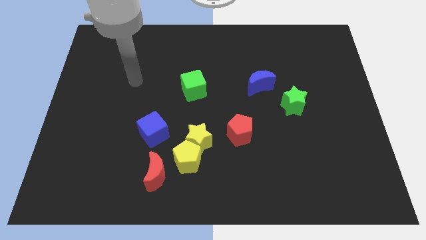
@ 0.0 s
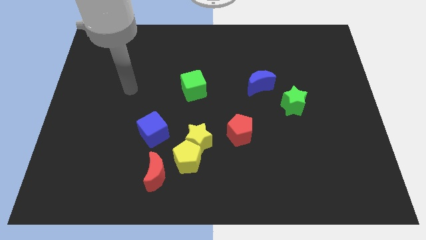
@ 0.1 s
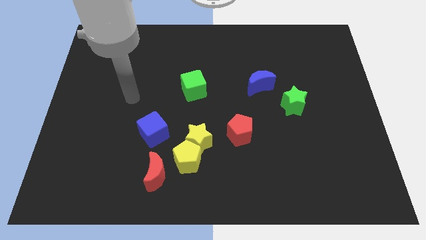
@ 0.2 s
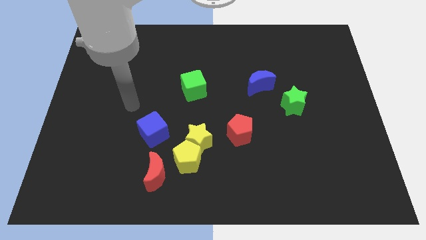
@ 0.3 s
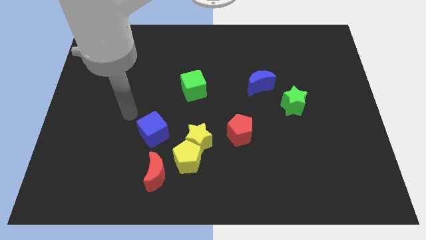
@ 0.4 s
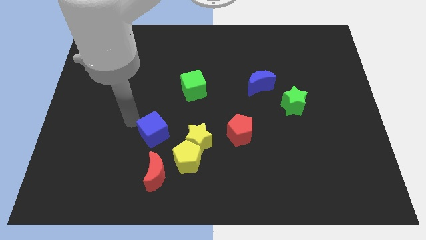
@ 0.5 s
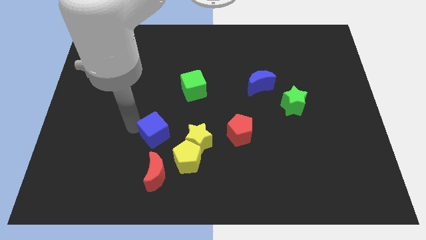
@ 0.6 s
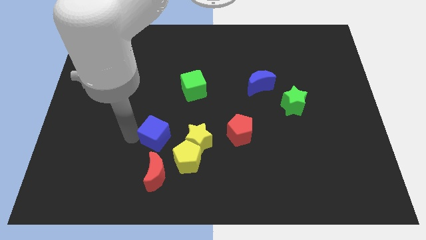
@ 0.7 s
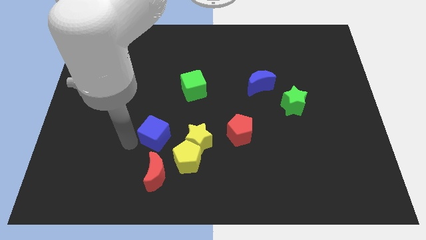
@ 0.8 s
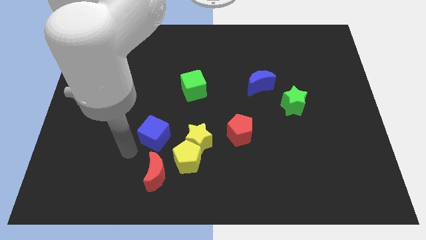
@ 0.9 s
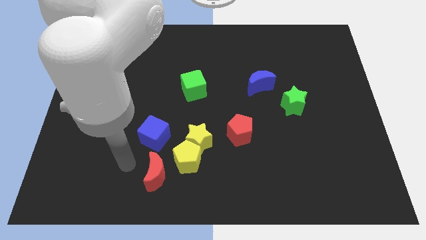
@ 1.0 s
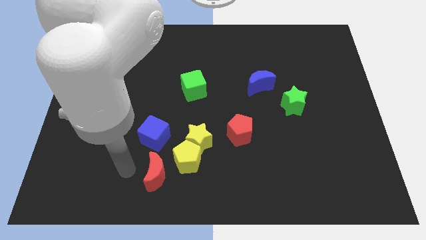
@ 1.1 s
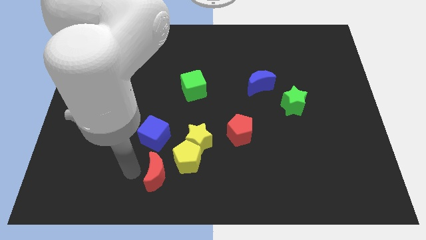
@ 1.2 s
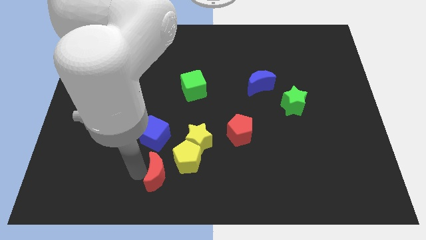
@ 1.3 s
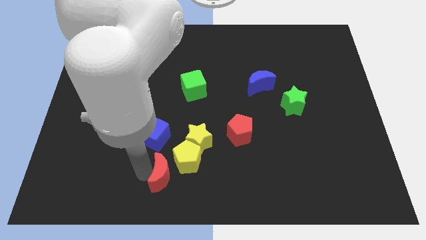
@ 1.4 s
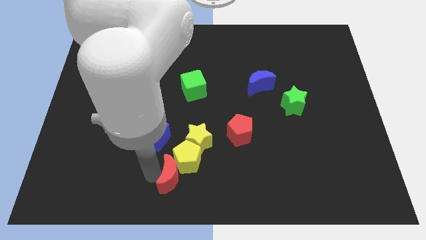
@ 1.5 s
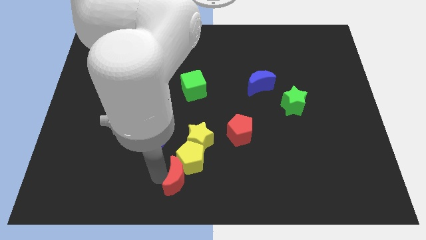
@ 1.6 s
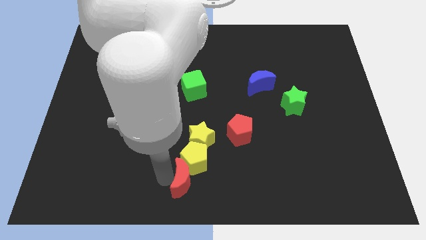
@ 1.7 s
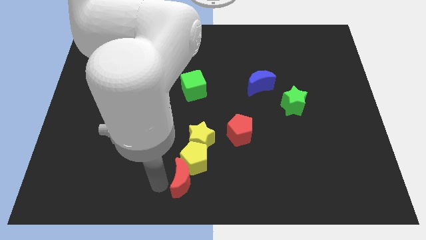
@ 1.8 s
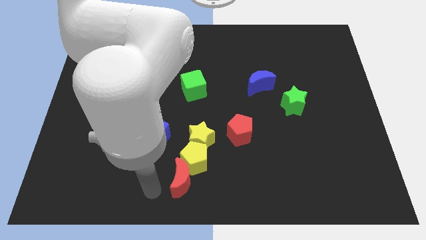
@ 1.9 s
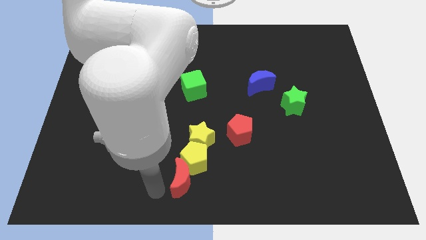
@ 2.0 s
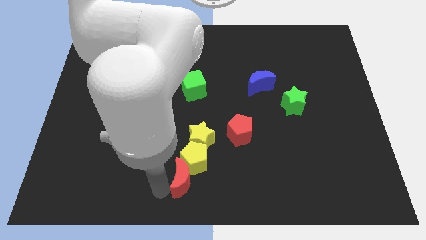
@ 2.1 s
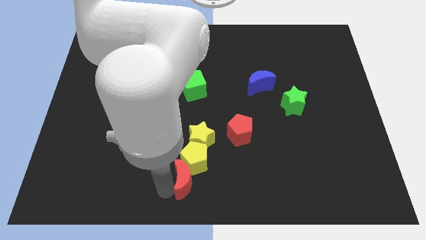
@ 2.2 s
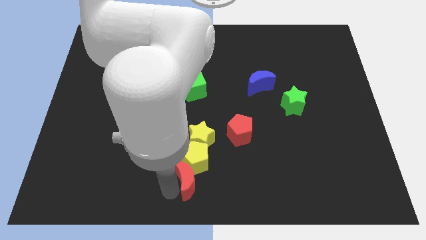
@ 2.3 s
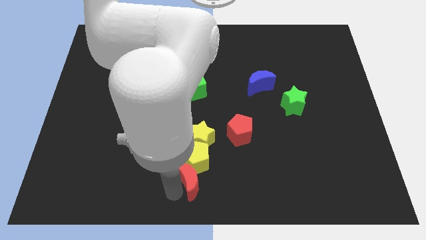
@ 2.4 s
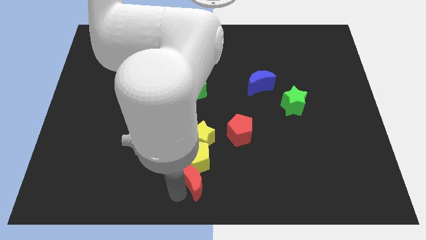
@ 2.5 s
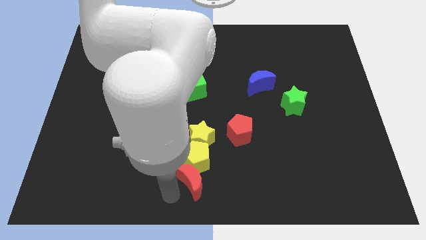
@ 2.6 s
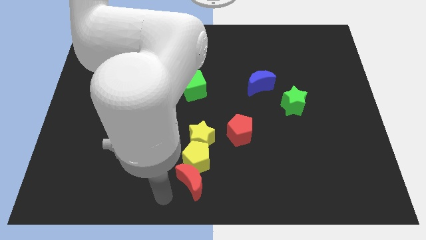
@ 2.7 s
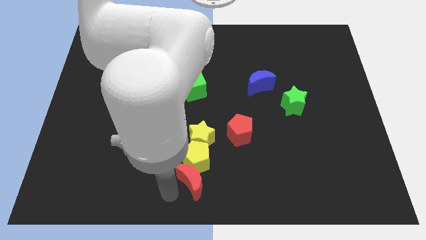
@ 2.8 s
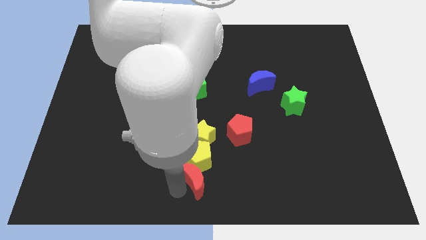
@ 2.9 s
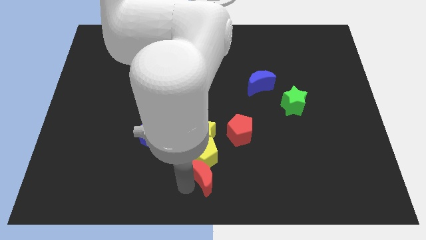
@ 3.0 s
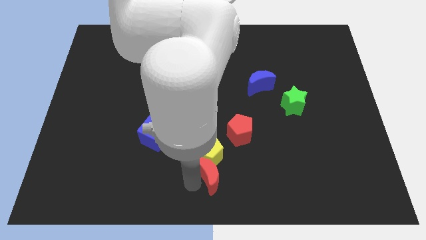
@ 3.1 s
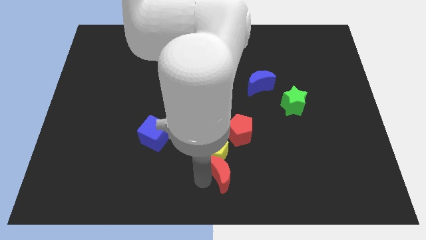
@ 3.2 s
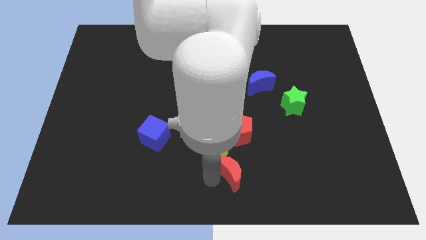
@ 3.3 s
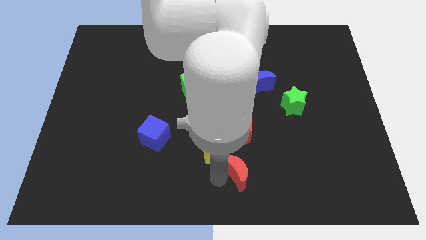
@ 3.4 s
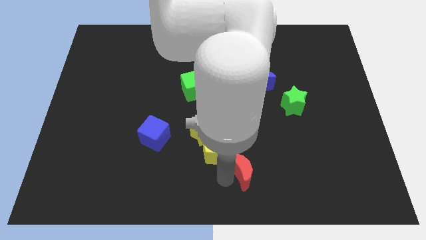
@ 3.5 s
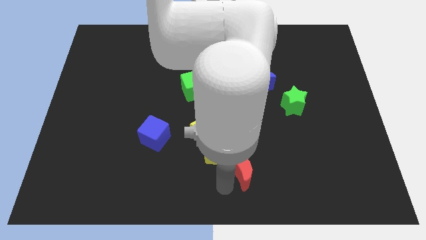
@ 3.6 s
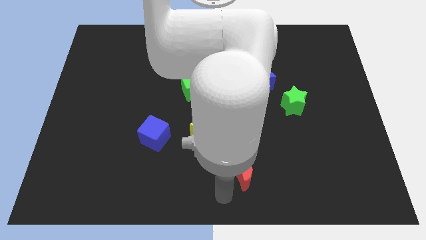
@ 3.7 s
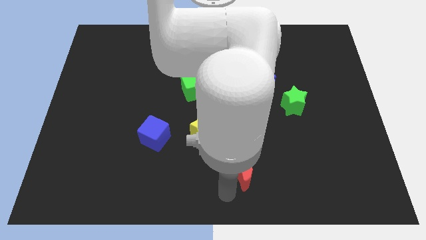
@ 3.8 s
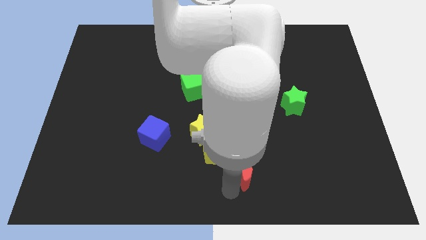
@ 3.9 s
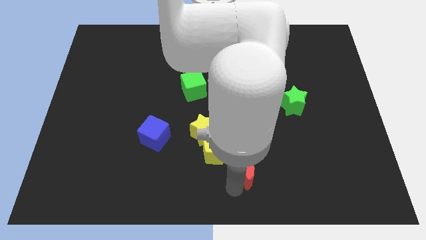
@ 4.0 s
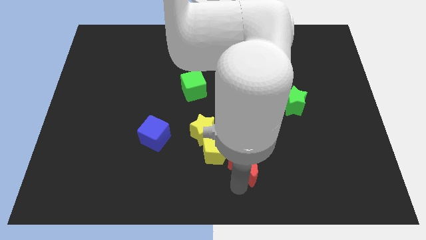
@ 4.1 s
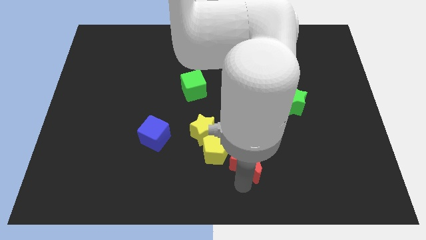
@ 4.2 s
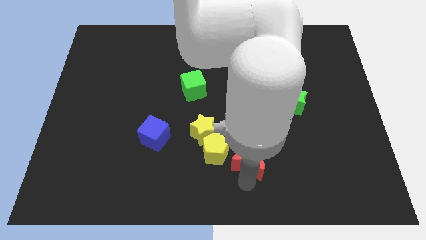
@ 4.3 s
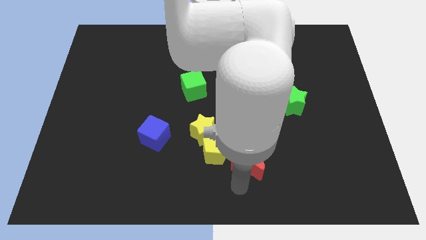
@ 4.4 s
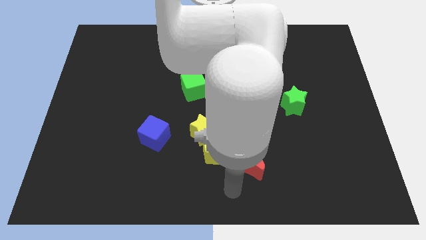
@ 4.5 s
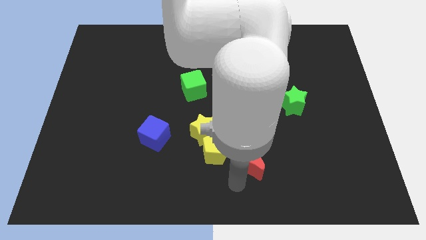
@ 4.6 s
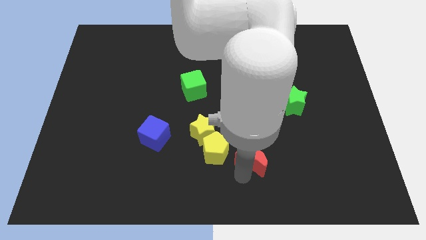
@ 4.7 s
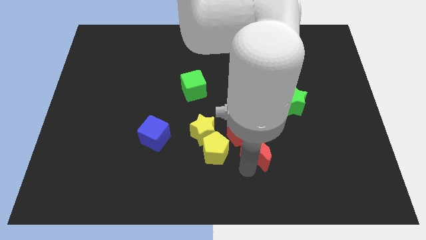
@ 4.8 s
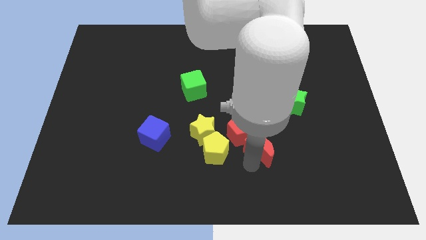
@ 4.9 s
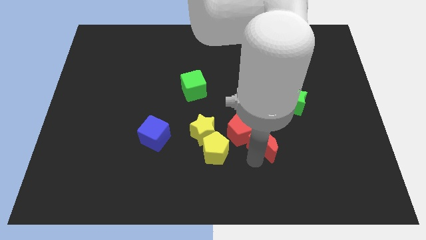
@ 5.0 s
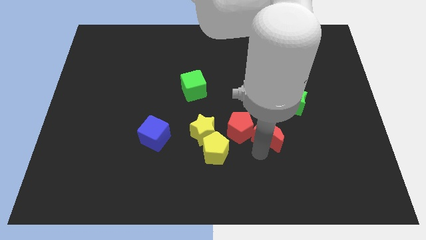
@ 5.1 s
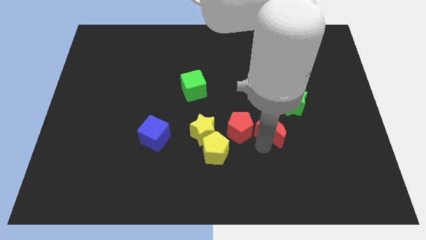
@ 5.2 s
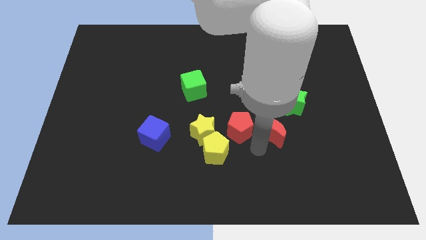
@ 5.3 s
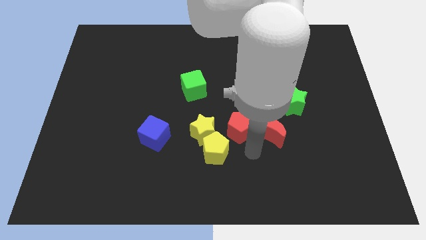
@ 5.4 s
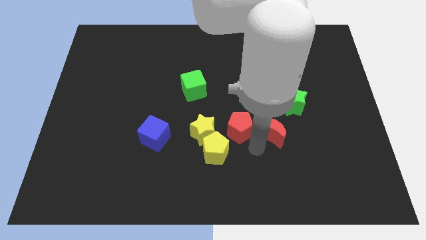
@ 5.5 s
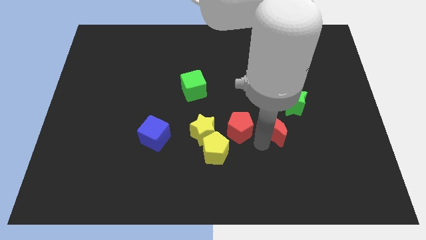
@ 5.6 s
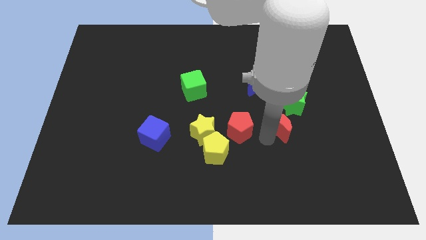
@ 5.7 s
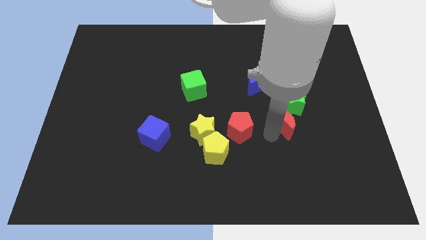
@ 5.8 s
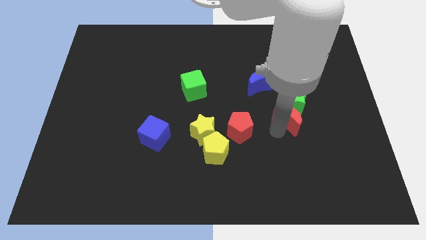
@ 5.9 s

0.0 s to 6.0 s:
put the red moon close to the green star

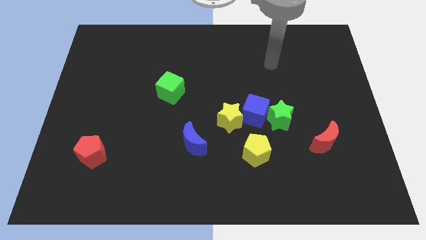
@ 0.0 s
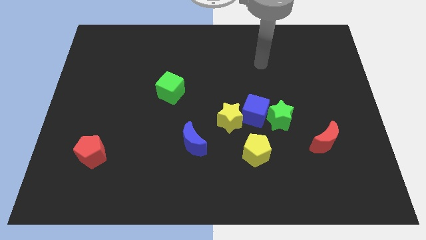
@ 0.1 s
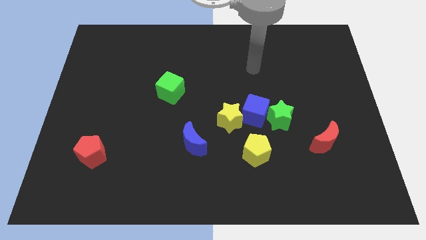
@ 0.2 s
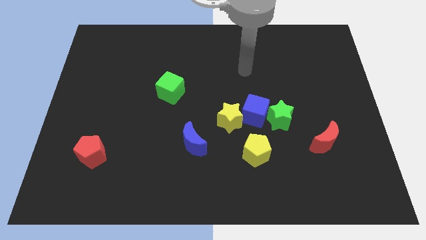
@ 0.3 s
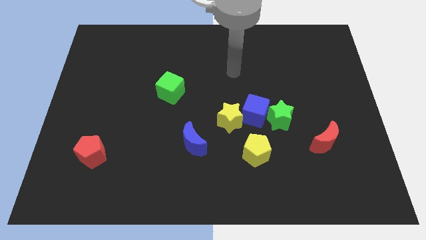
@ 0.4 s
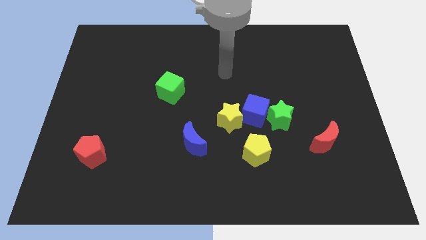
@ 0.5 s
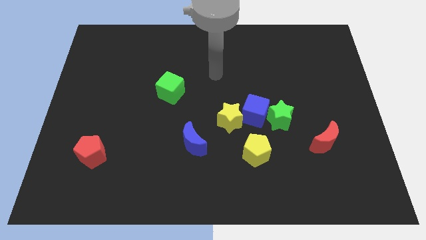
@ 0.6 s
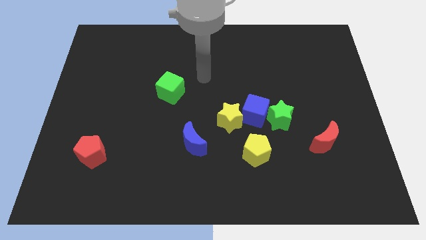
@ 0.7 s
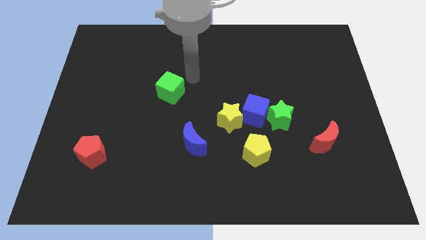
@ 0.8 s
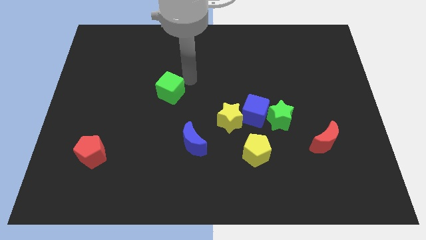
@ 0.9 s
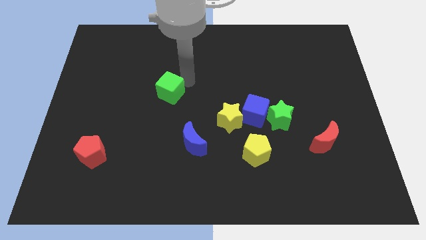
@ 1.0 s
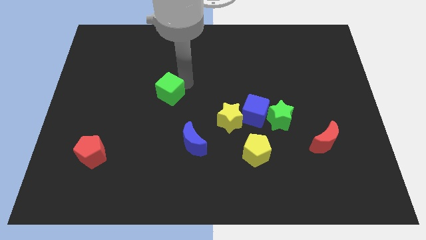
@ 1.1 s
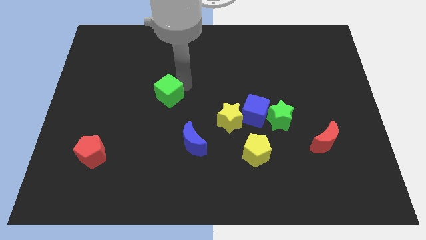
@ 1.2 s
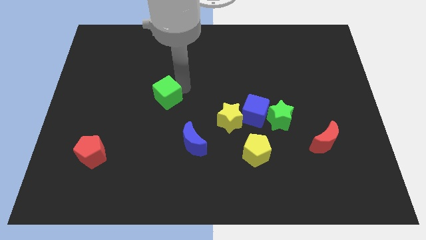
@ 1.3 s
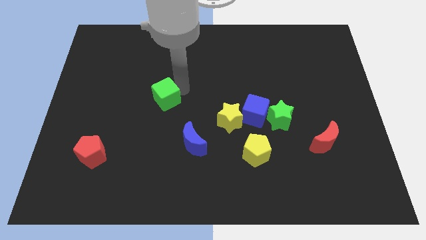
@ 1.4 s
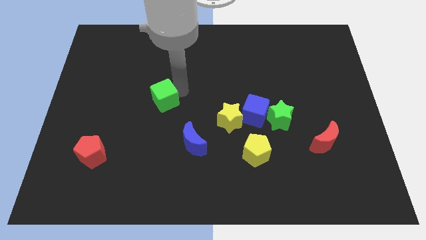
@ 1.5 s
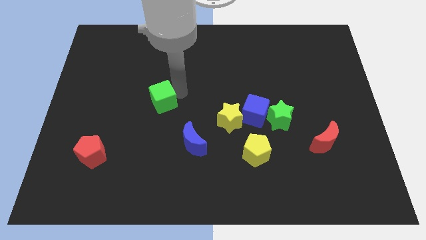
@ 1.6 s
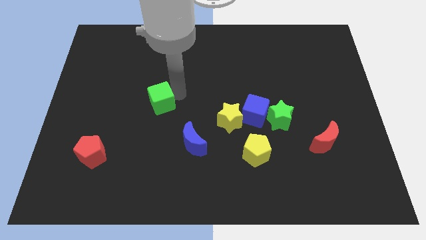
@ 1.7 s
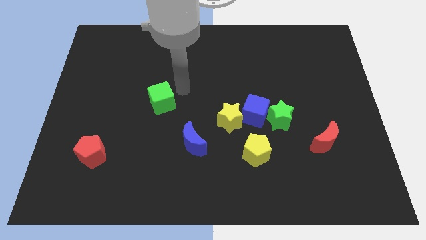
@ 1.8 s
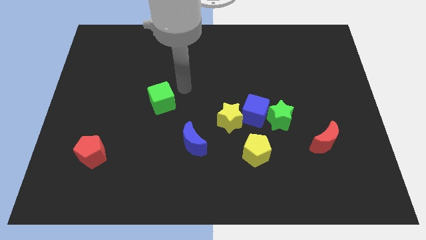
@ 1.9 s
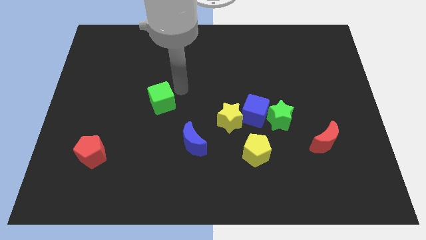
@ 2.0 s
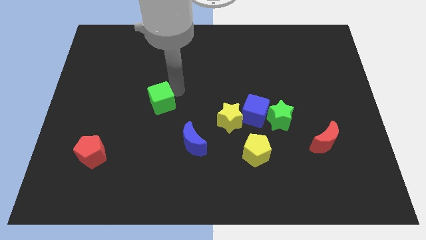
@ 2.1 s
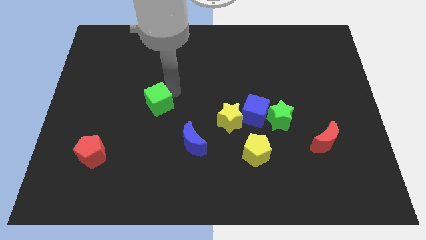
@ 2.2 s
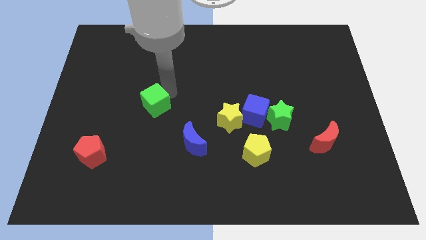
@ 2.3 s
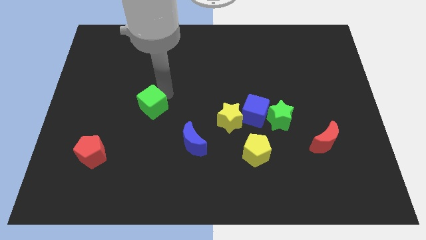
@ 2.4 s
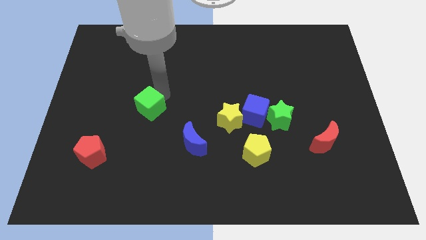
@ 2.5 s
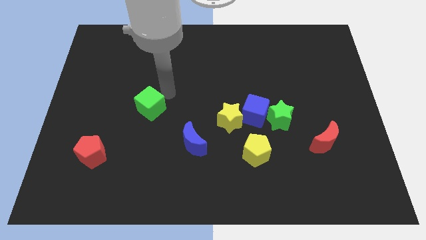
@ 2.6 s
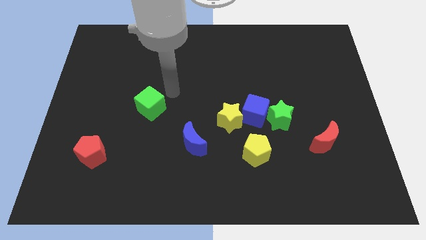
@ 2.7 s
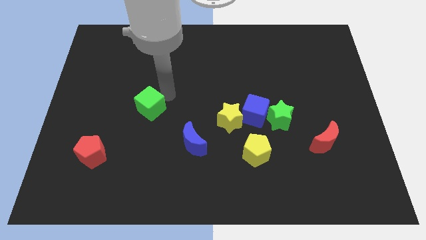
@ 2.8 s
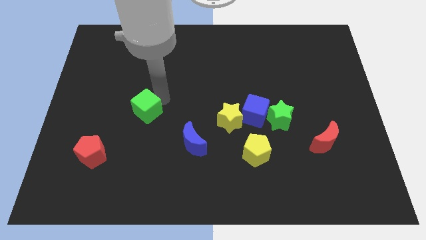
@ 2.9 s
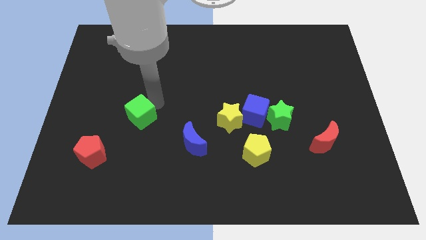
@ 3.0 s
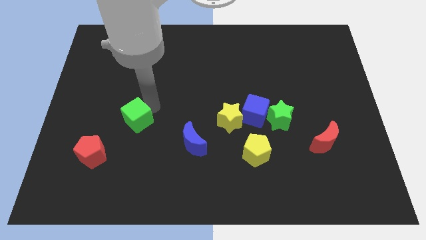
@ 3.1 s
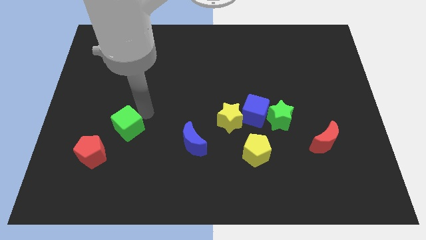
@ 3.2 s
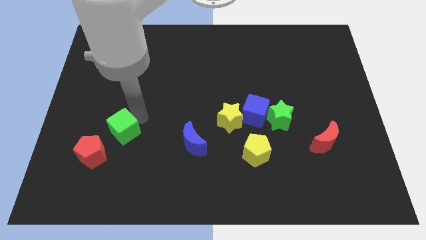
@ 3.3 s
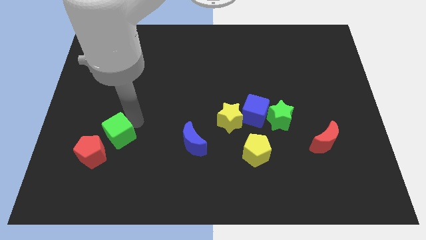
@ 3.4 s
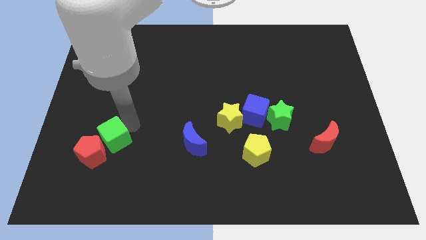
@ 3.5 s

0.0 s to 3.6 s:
put the green cube to the red pentagon
